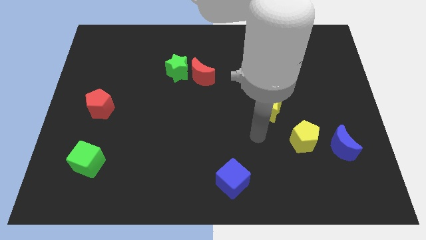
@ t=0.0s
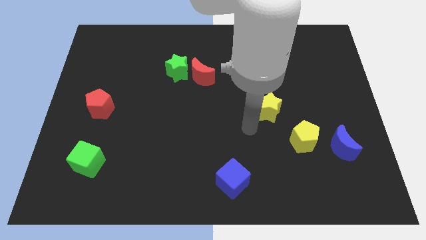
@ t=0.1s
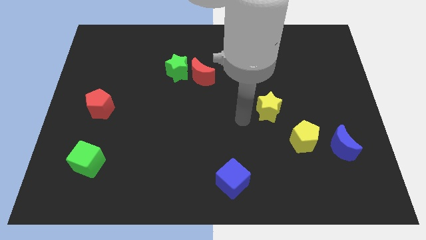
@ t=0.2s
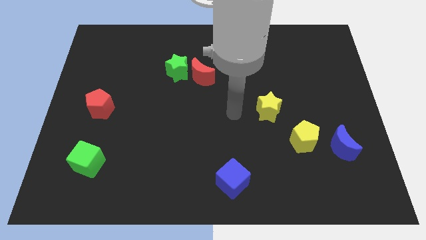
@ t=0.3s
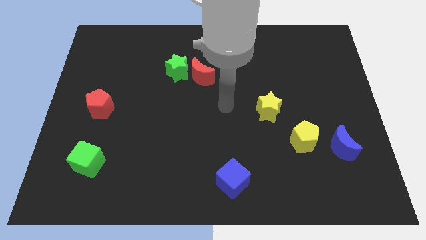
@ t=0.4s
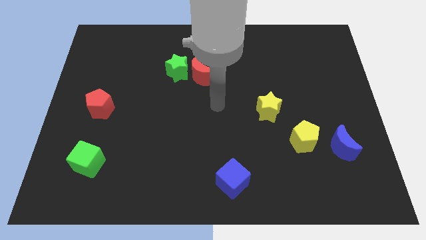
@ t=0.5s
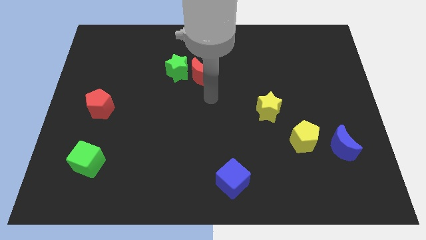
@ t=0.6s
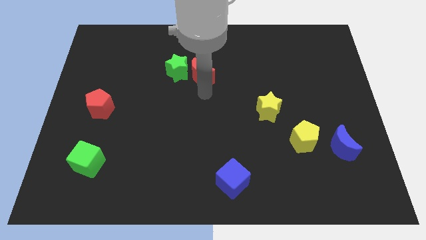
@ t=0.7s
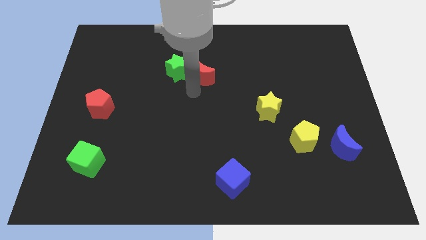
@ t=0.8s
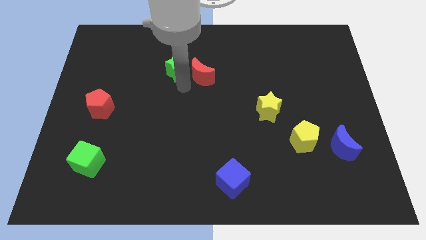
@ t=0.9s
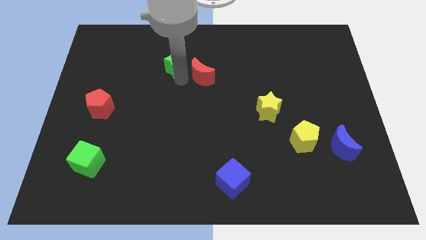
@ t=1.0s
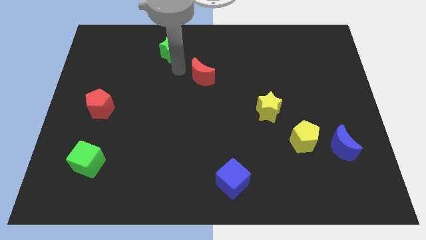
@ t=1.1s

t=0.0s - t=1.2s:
pull the red moon apart from the green star

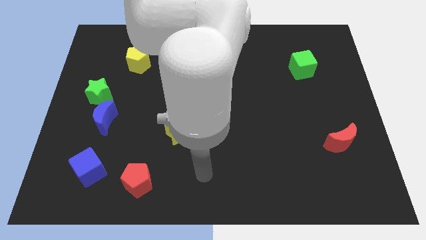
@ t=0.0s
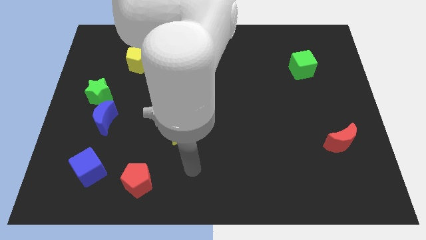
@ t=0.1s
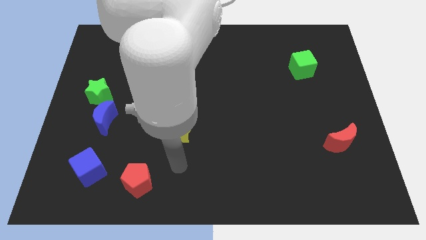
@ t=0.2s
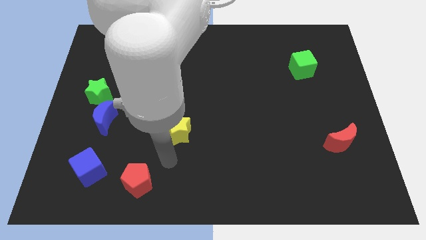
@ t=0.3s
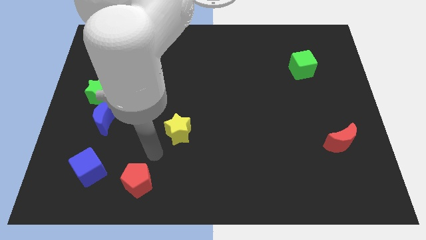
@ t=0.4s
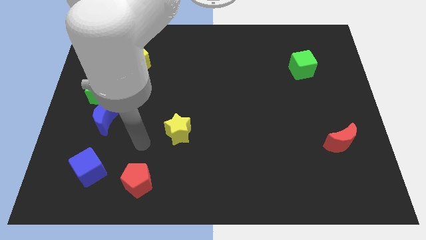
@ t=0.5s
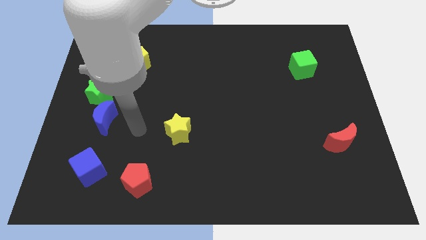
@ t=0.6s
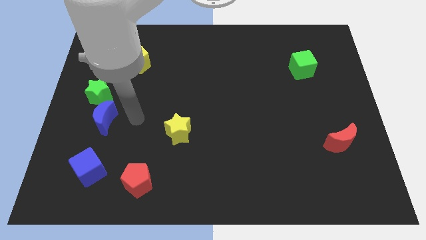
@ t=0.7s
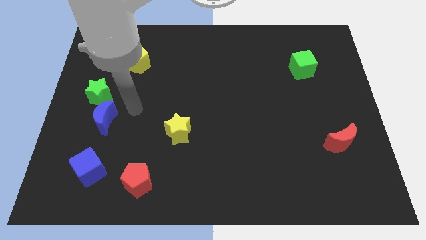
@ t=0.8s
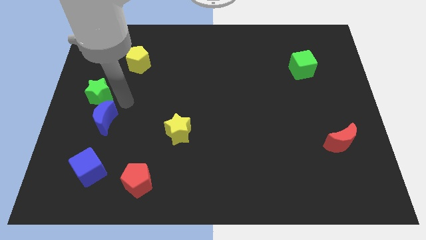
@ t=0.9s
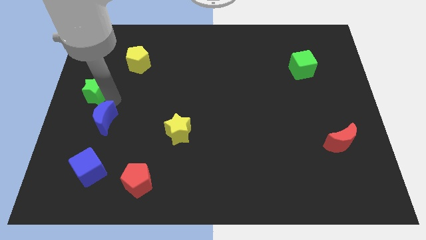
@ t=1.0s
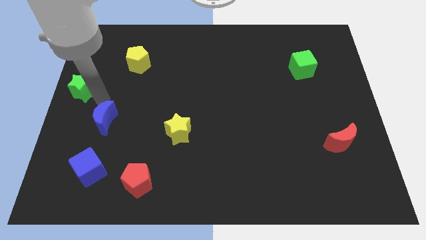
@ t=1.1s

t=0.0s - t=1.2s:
pull the blue moon apart from the green star

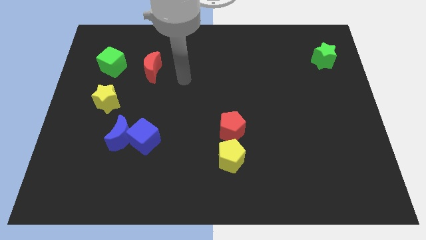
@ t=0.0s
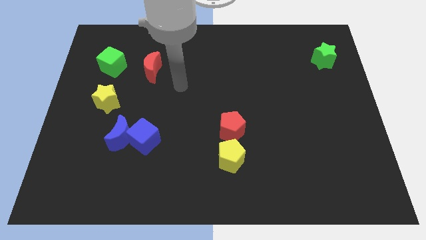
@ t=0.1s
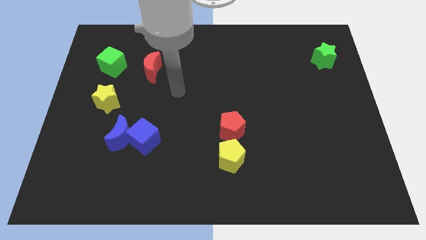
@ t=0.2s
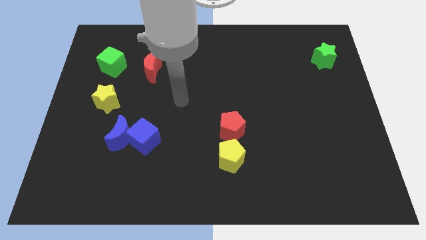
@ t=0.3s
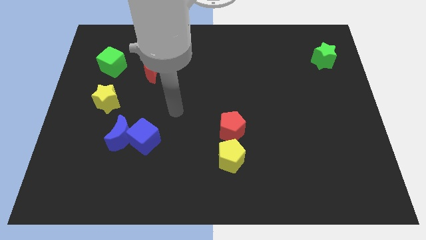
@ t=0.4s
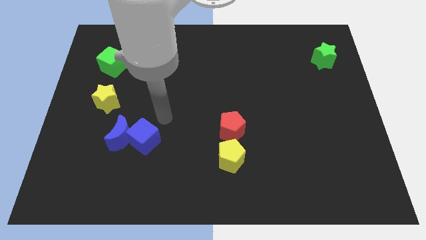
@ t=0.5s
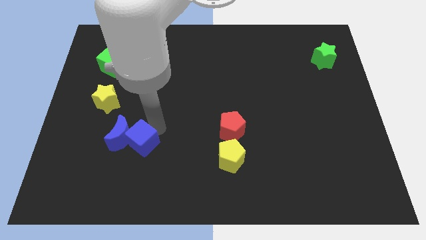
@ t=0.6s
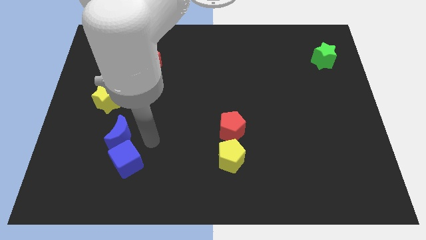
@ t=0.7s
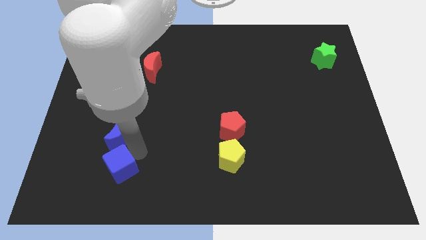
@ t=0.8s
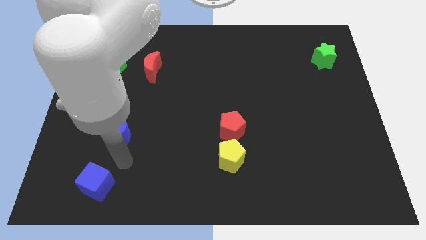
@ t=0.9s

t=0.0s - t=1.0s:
move the blue moon away from the blue cube

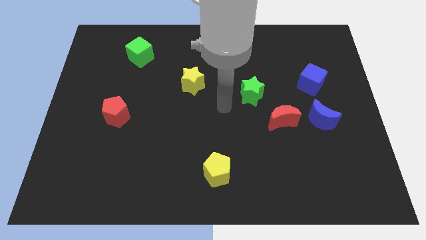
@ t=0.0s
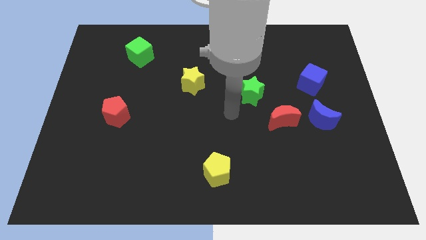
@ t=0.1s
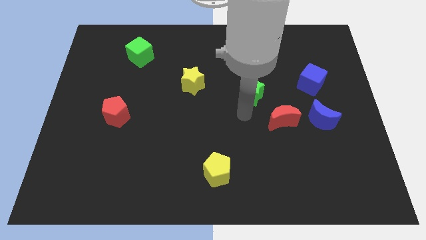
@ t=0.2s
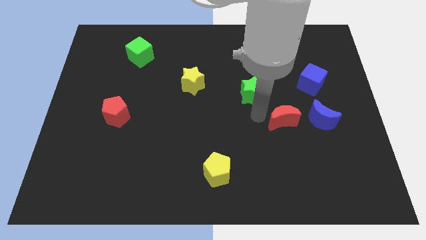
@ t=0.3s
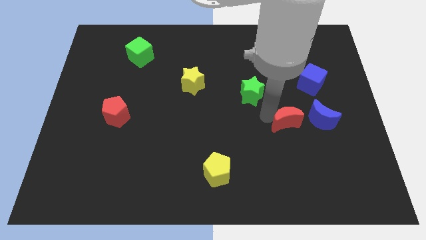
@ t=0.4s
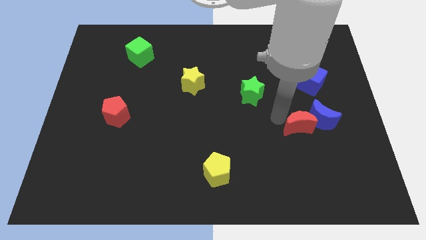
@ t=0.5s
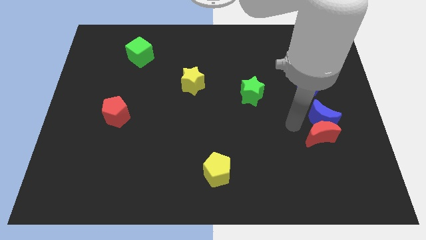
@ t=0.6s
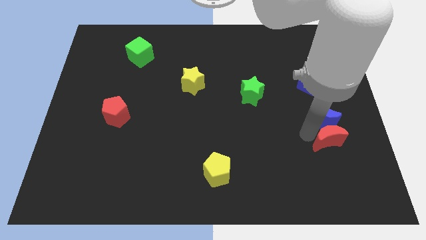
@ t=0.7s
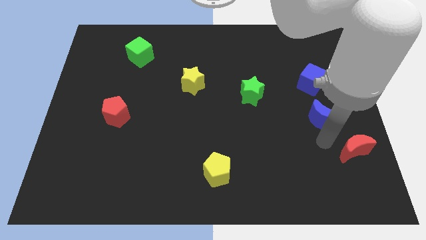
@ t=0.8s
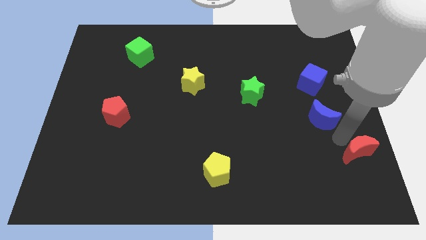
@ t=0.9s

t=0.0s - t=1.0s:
separate the blue moon from the red moon

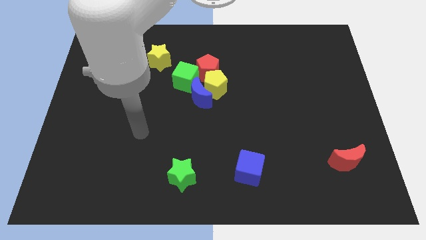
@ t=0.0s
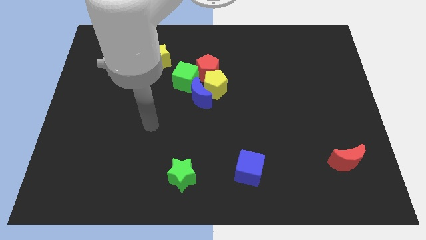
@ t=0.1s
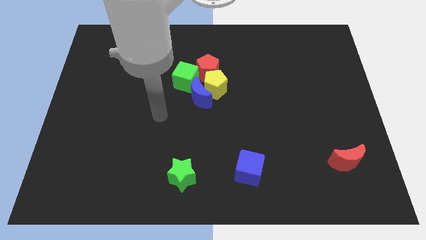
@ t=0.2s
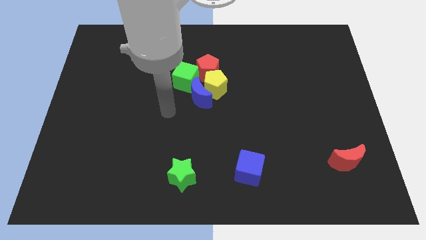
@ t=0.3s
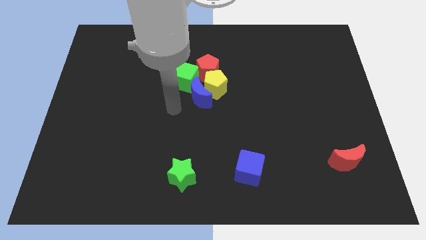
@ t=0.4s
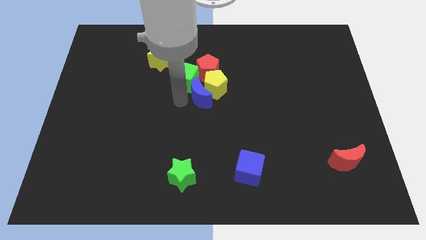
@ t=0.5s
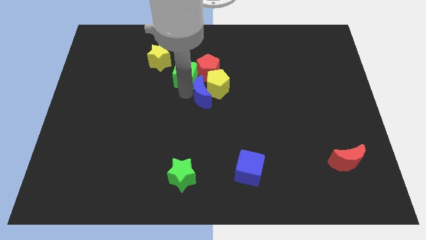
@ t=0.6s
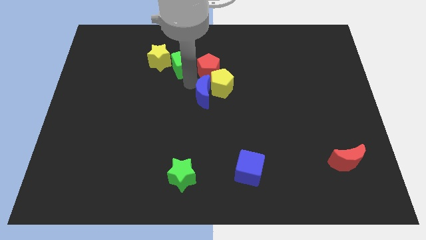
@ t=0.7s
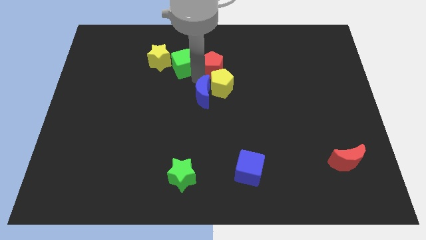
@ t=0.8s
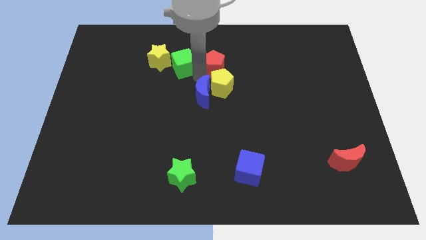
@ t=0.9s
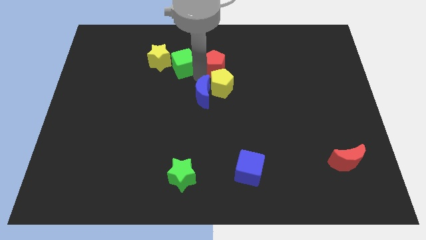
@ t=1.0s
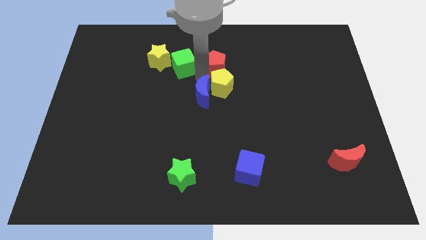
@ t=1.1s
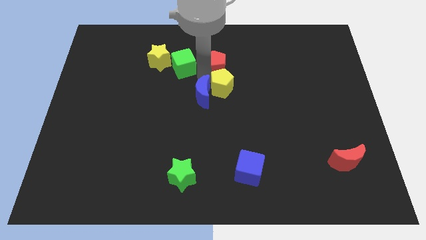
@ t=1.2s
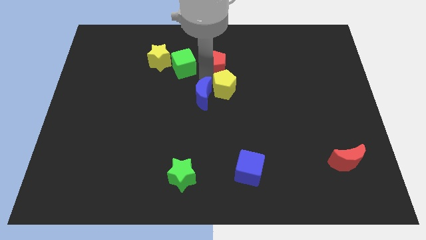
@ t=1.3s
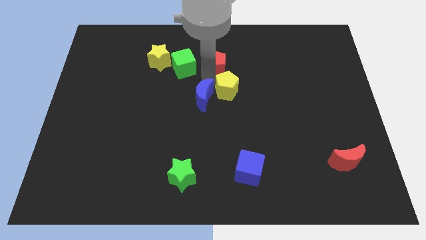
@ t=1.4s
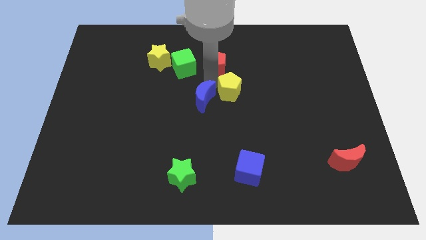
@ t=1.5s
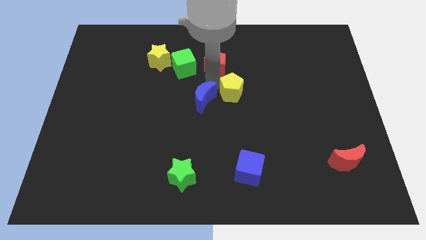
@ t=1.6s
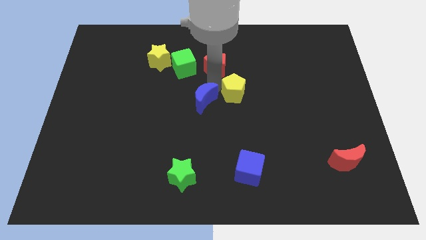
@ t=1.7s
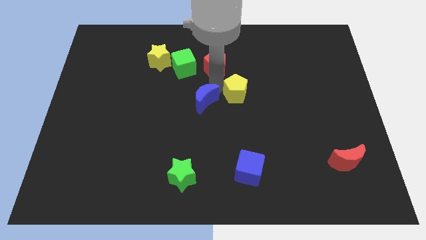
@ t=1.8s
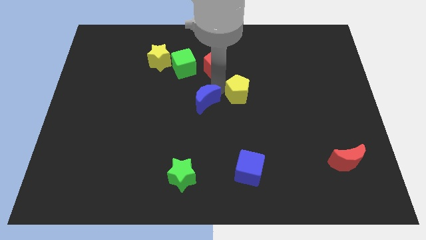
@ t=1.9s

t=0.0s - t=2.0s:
pull the yellow pentagon apart from the blue moon, red pentagon, and green cube

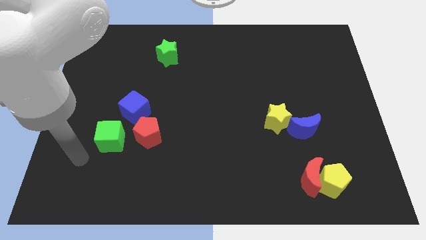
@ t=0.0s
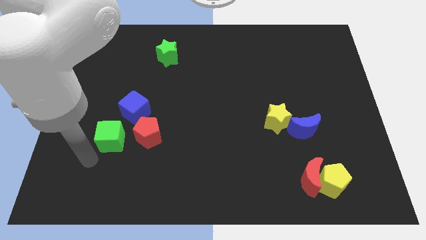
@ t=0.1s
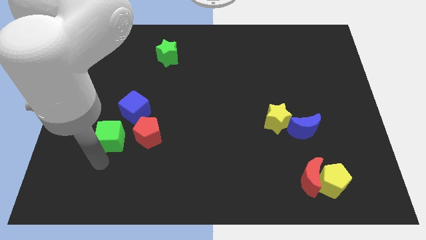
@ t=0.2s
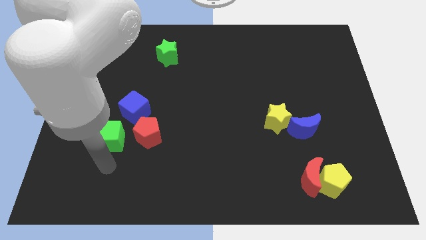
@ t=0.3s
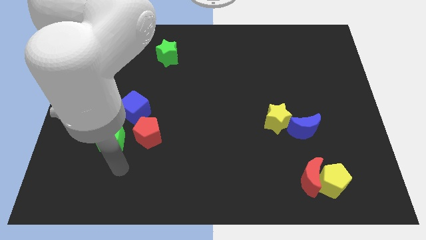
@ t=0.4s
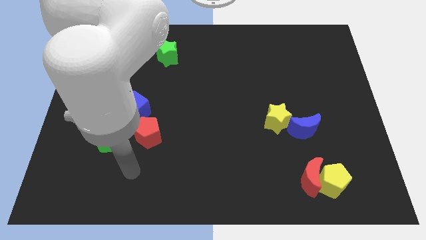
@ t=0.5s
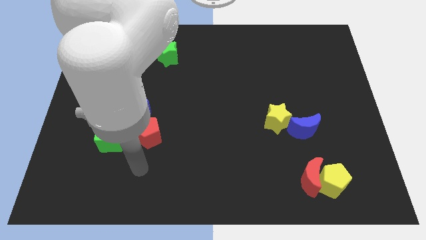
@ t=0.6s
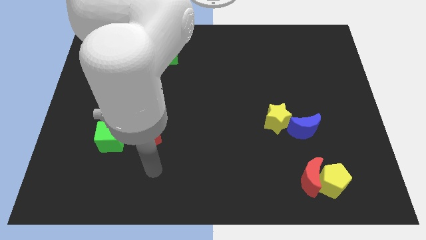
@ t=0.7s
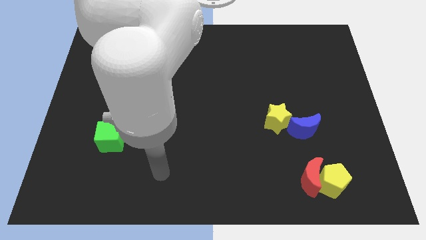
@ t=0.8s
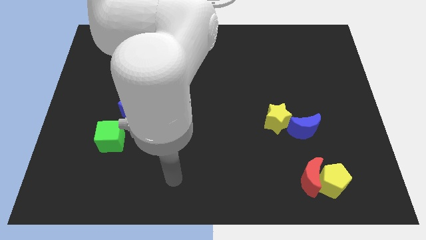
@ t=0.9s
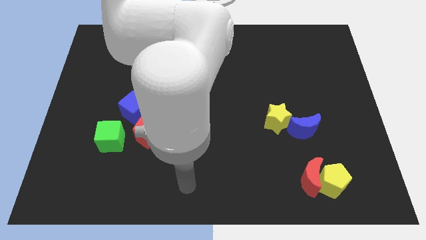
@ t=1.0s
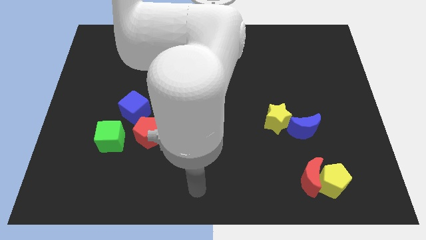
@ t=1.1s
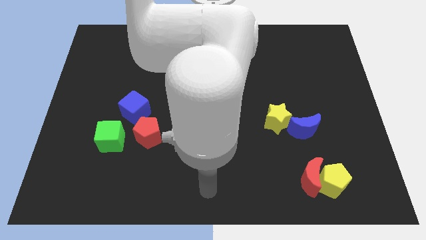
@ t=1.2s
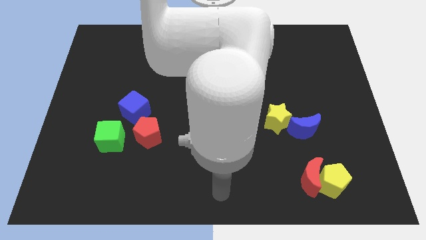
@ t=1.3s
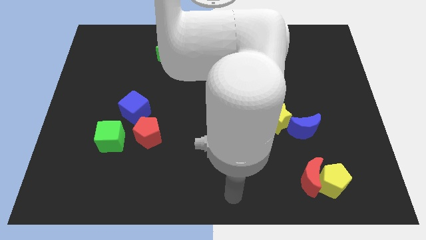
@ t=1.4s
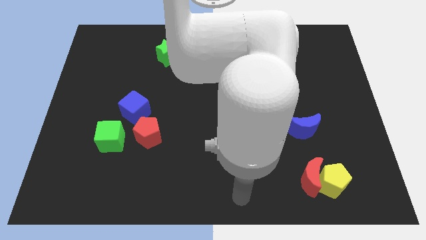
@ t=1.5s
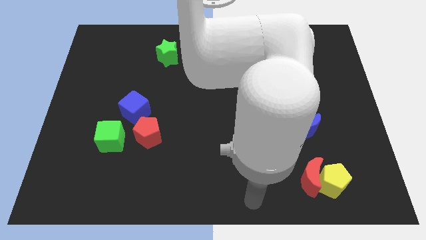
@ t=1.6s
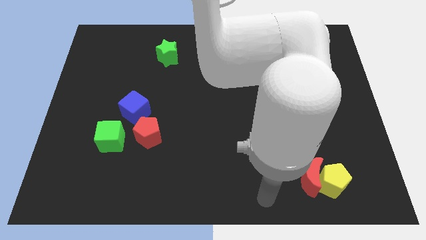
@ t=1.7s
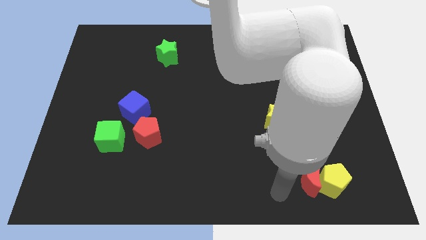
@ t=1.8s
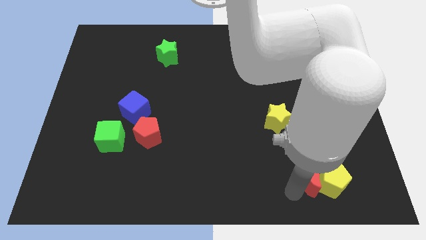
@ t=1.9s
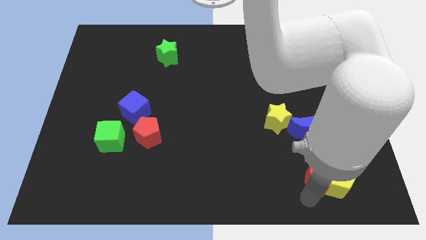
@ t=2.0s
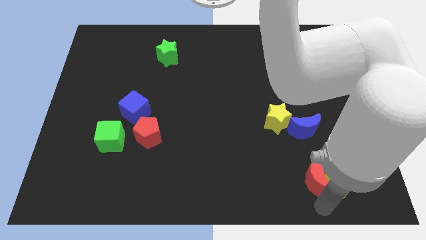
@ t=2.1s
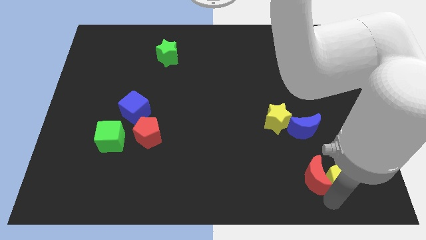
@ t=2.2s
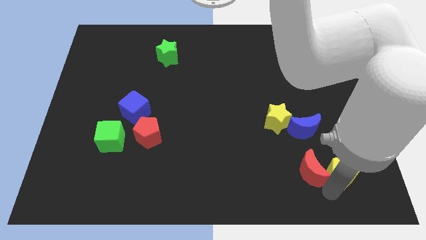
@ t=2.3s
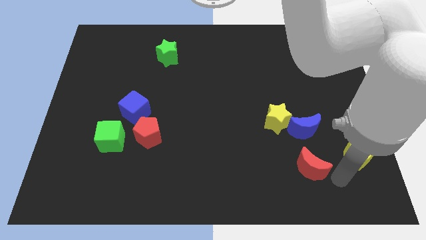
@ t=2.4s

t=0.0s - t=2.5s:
separate the red moon from the yellow pentagon

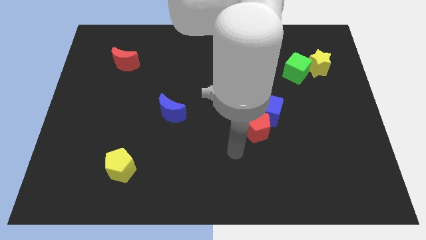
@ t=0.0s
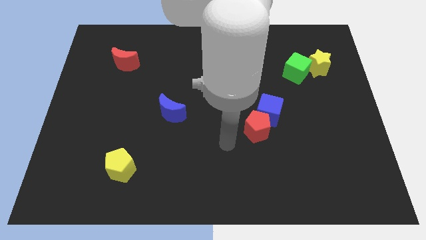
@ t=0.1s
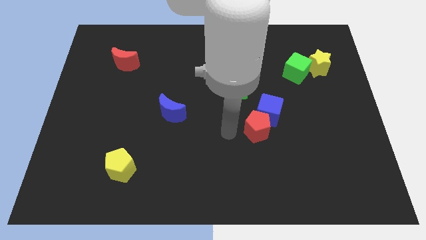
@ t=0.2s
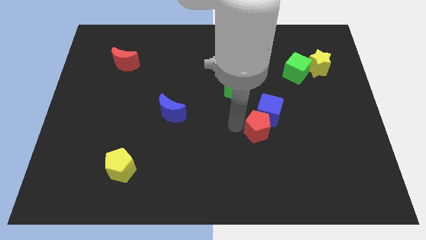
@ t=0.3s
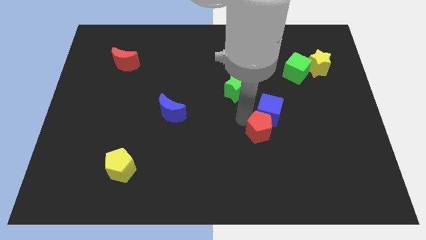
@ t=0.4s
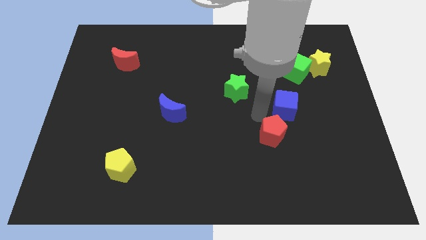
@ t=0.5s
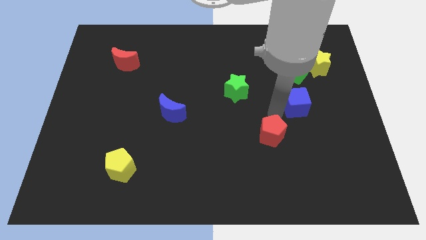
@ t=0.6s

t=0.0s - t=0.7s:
move the red pentagon away from the blue cube
